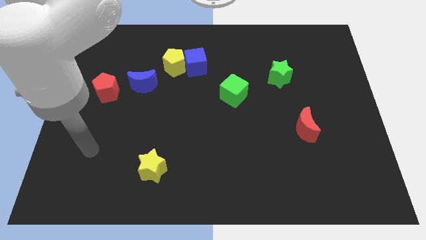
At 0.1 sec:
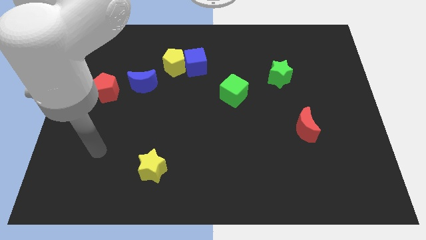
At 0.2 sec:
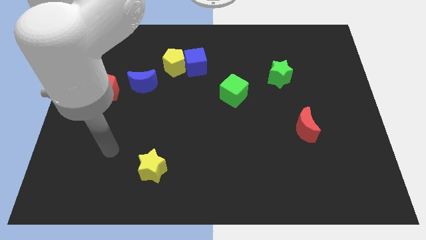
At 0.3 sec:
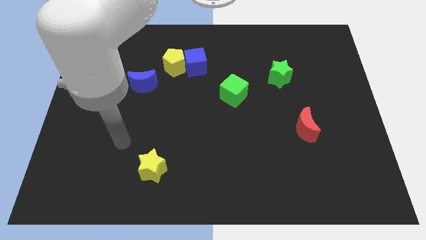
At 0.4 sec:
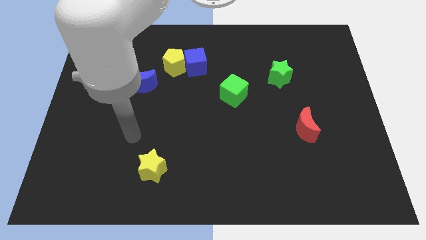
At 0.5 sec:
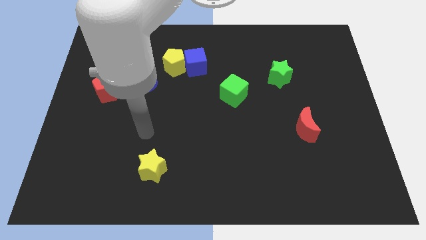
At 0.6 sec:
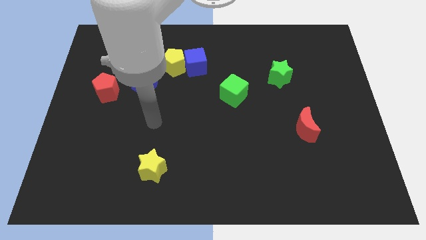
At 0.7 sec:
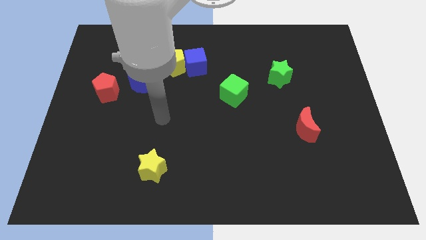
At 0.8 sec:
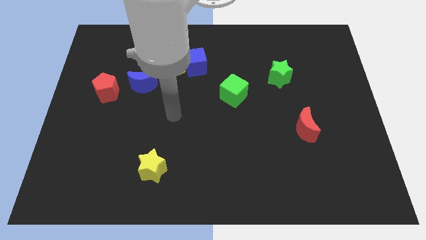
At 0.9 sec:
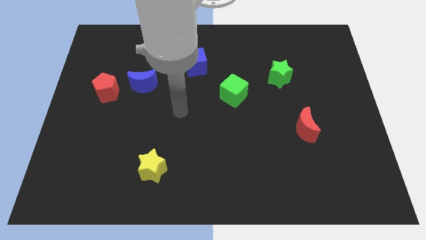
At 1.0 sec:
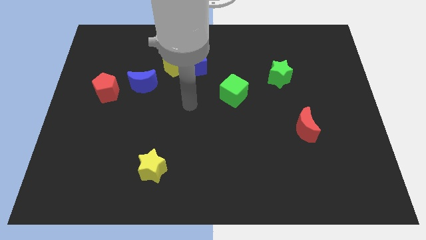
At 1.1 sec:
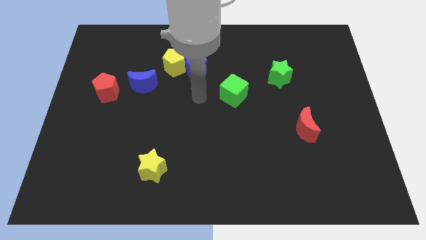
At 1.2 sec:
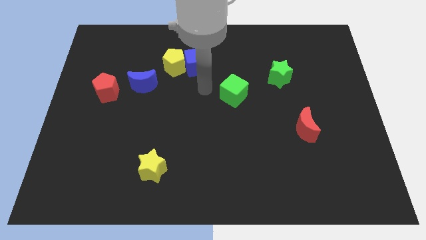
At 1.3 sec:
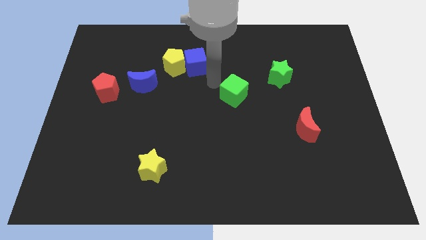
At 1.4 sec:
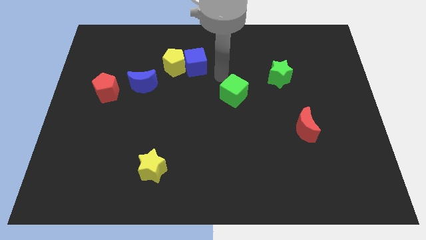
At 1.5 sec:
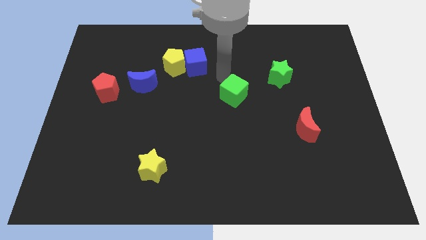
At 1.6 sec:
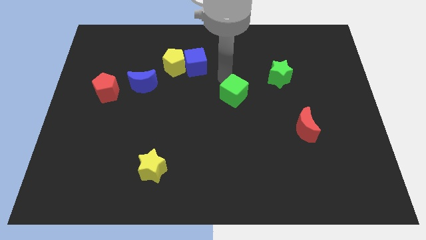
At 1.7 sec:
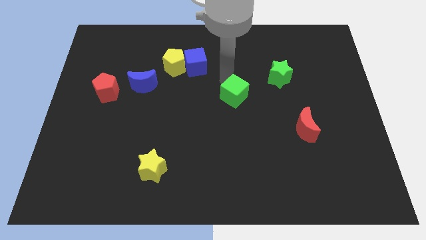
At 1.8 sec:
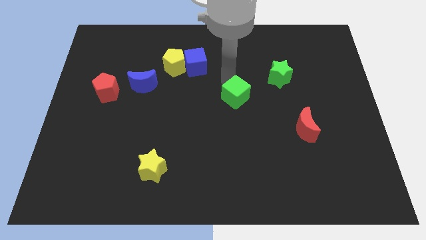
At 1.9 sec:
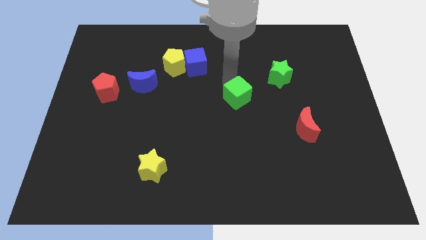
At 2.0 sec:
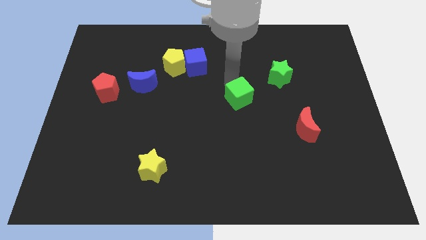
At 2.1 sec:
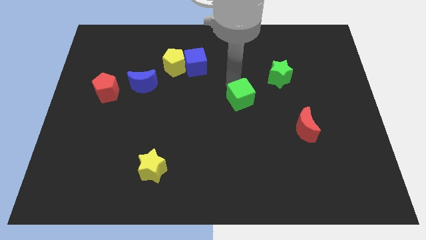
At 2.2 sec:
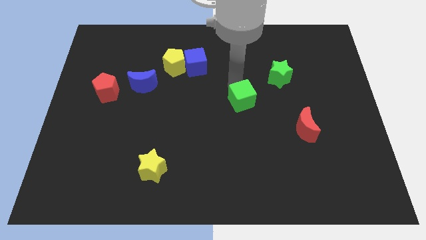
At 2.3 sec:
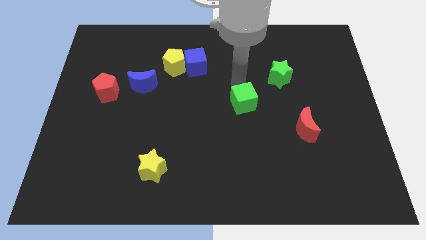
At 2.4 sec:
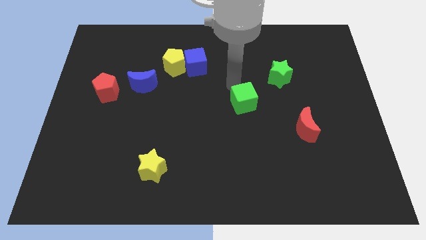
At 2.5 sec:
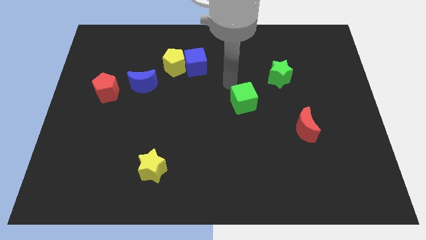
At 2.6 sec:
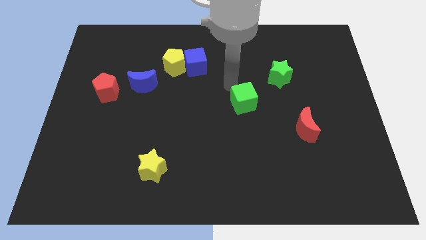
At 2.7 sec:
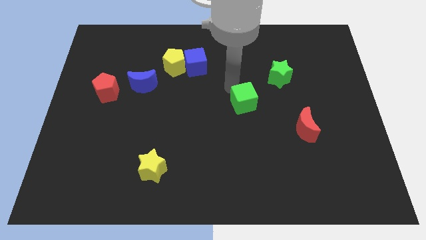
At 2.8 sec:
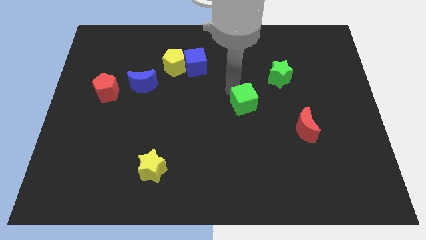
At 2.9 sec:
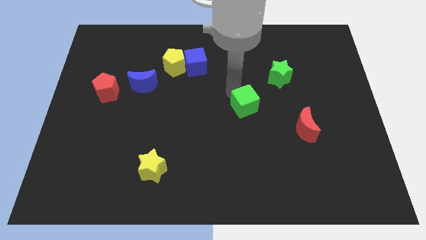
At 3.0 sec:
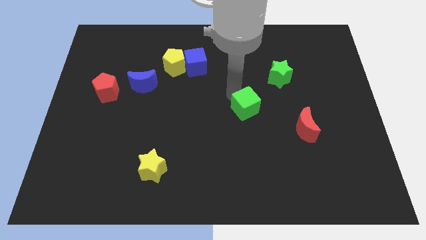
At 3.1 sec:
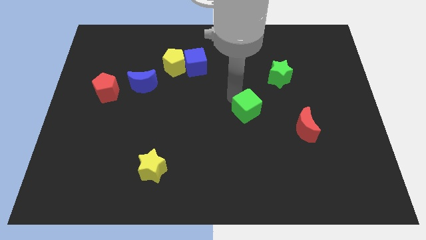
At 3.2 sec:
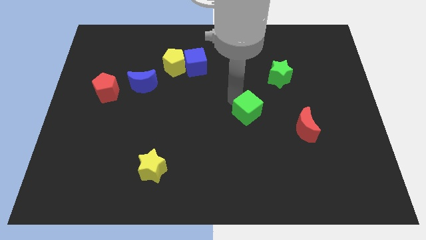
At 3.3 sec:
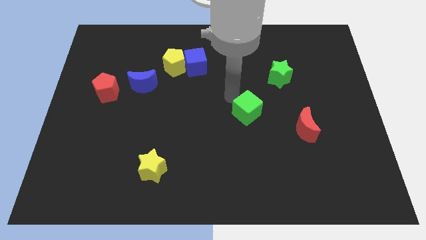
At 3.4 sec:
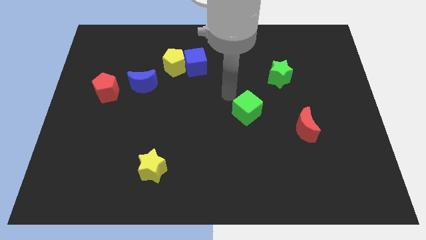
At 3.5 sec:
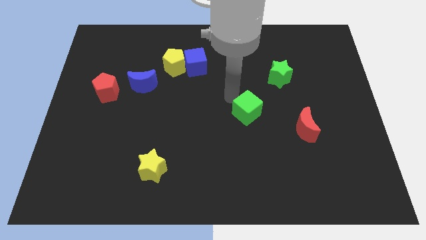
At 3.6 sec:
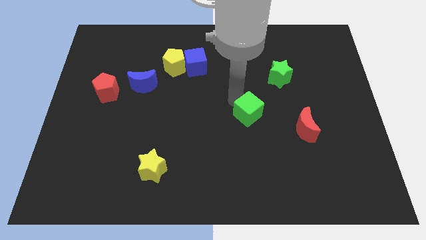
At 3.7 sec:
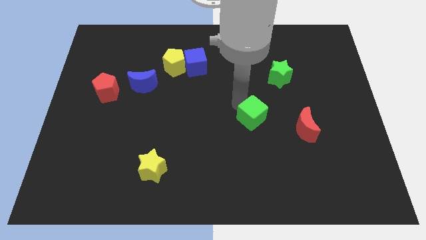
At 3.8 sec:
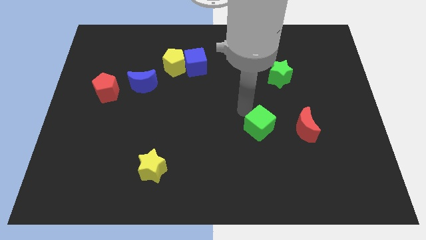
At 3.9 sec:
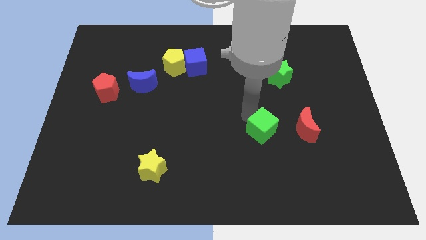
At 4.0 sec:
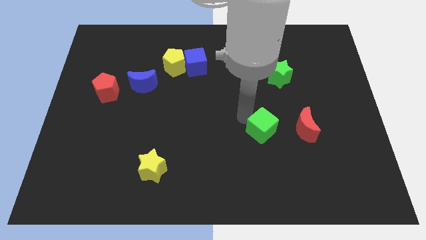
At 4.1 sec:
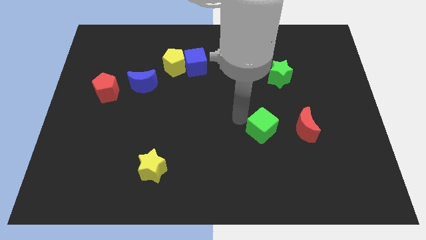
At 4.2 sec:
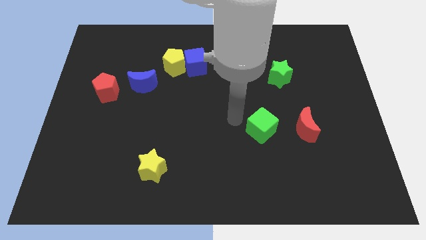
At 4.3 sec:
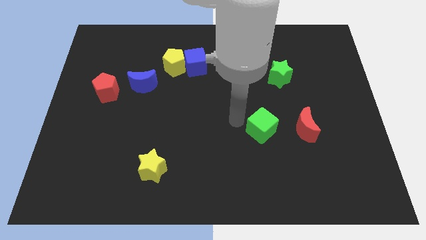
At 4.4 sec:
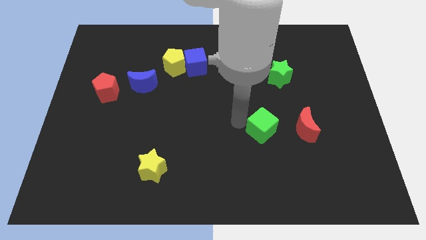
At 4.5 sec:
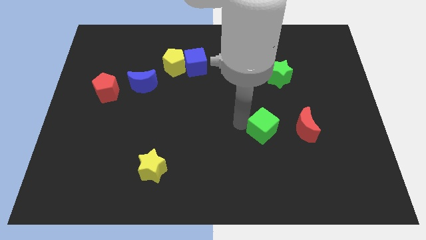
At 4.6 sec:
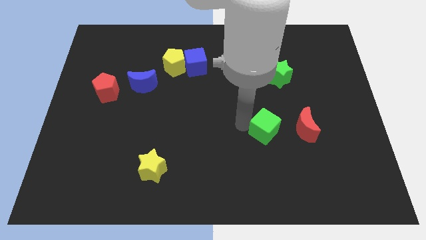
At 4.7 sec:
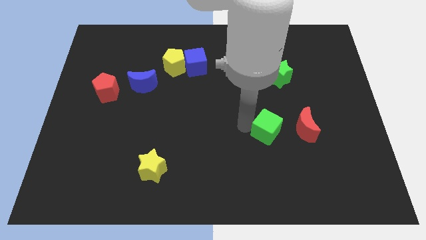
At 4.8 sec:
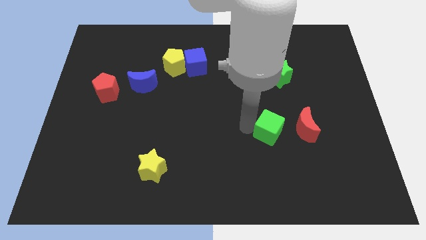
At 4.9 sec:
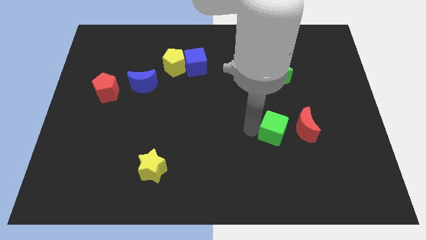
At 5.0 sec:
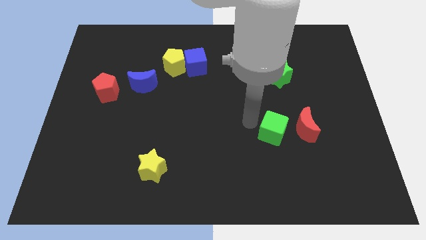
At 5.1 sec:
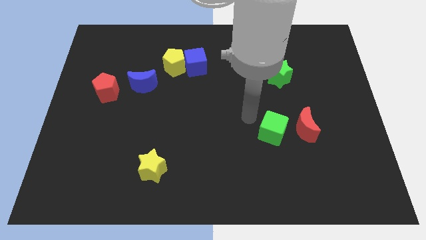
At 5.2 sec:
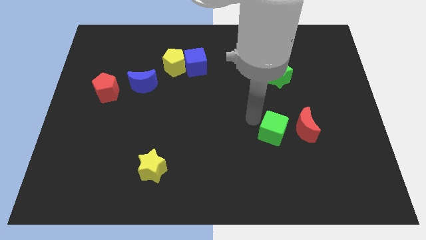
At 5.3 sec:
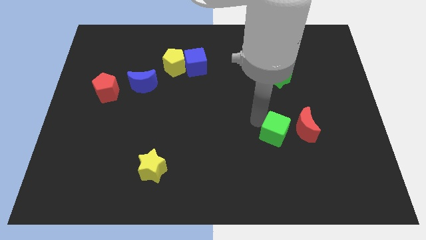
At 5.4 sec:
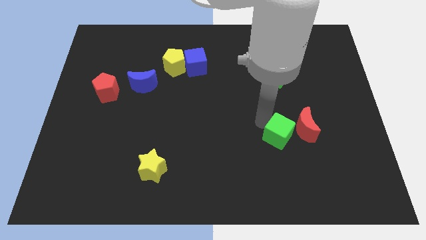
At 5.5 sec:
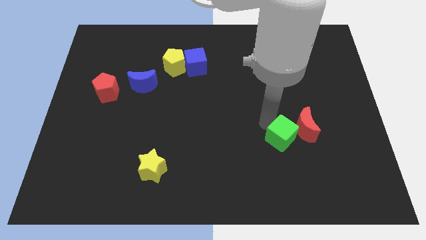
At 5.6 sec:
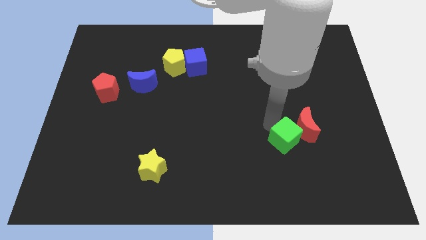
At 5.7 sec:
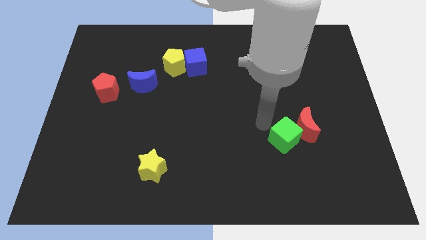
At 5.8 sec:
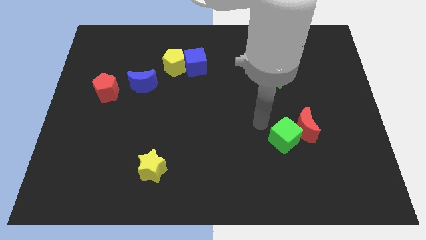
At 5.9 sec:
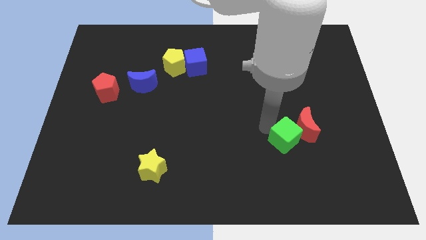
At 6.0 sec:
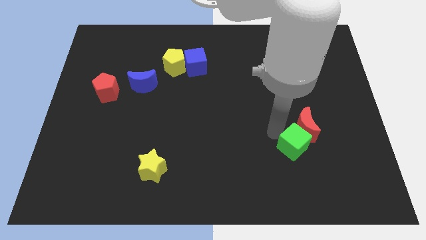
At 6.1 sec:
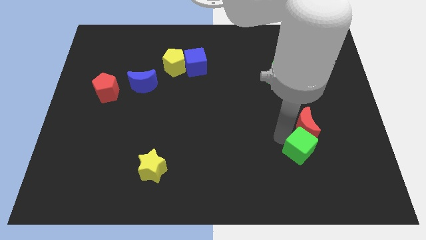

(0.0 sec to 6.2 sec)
push the green cube downwards and to the right diagonally

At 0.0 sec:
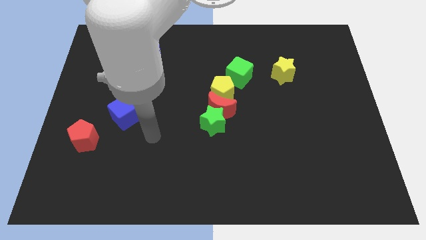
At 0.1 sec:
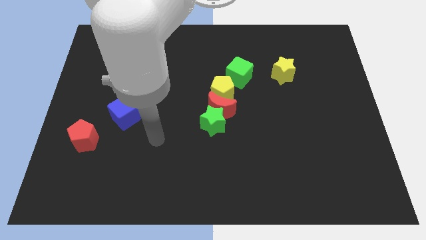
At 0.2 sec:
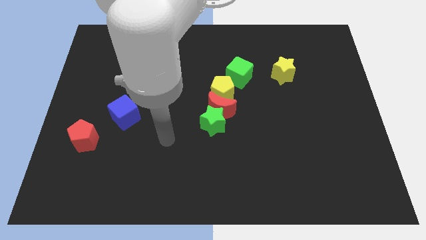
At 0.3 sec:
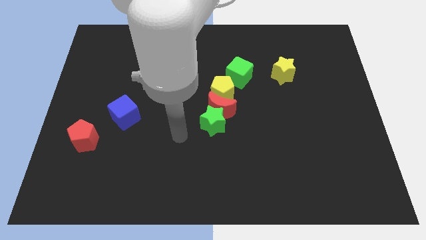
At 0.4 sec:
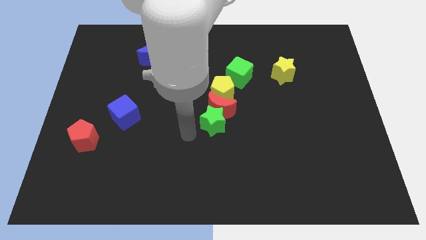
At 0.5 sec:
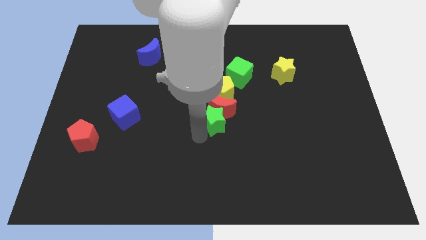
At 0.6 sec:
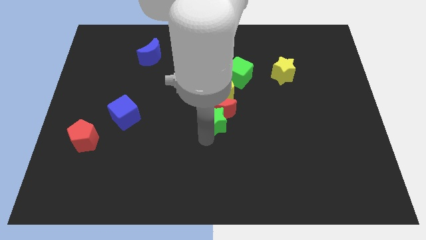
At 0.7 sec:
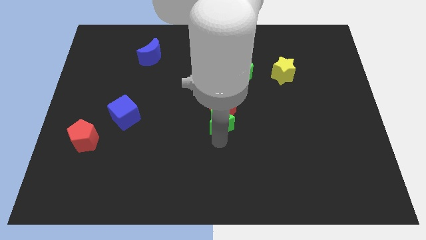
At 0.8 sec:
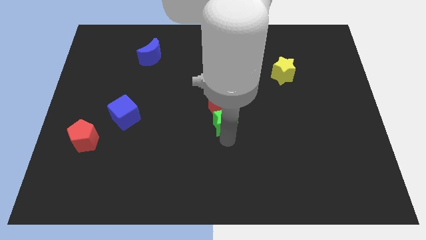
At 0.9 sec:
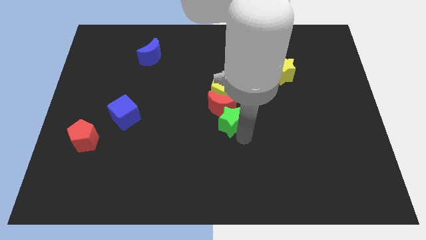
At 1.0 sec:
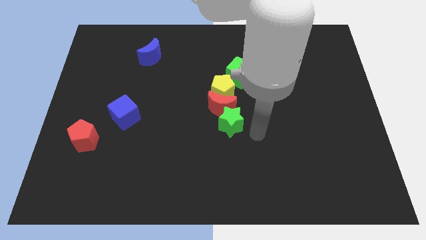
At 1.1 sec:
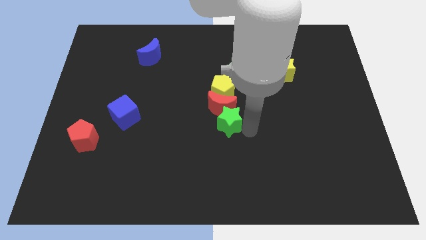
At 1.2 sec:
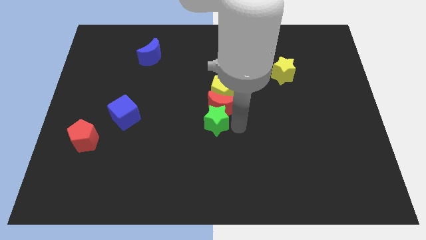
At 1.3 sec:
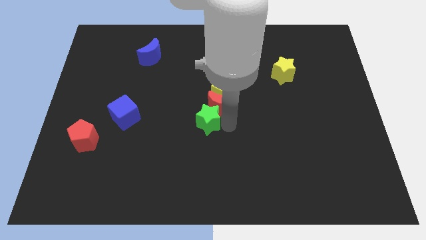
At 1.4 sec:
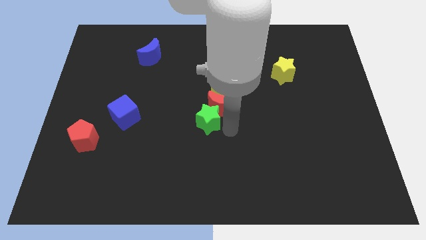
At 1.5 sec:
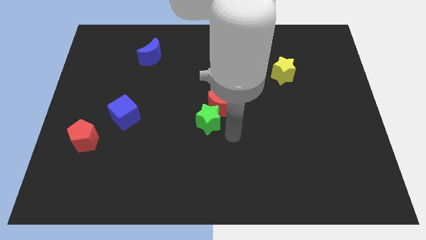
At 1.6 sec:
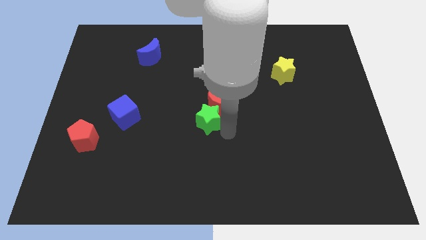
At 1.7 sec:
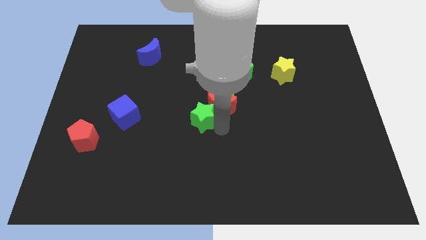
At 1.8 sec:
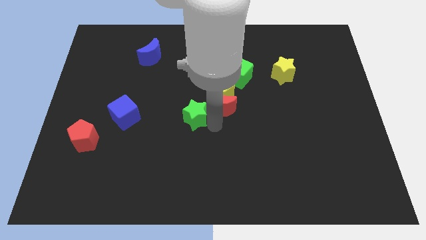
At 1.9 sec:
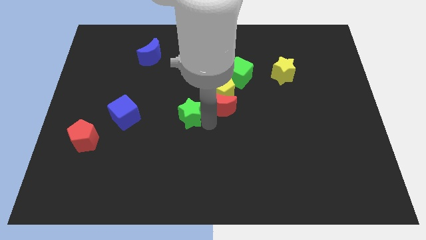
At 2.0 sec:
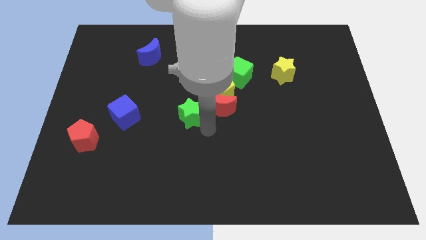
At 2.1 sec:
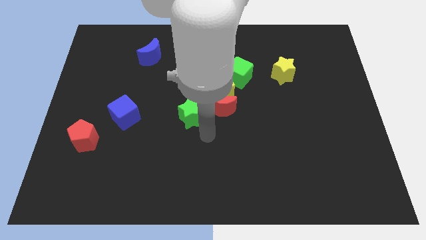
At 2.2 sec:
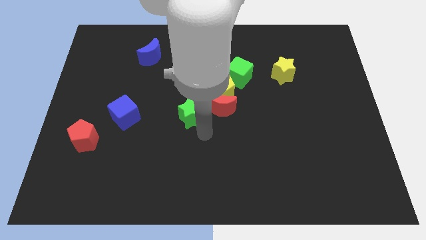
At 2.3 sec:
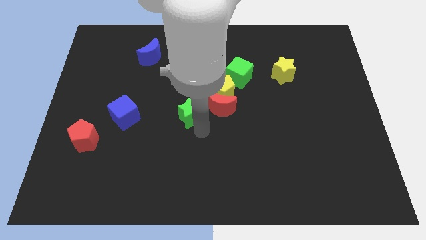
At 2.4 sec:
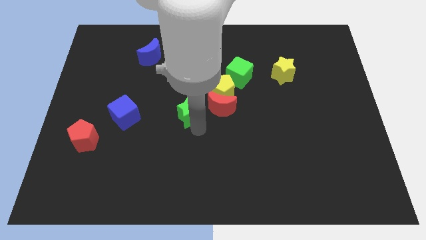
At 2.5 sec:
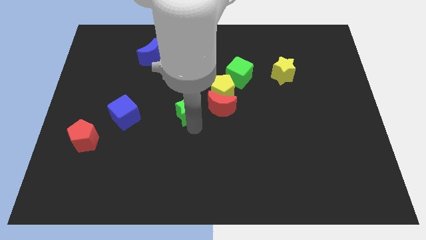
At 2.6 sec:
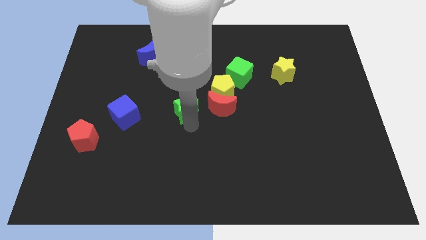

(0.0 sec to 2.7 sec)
slide the green star up and then left somewhat
